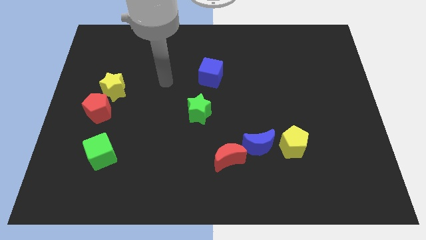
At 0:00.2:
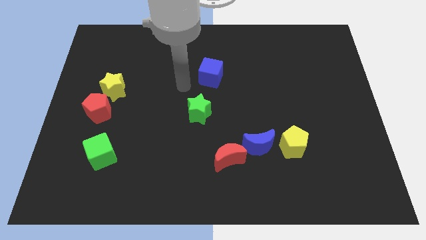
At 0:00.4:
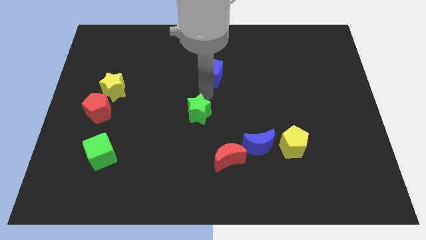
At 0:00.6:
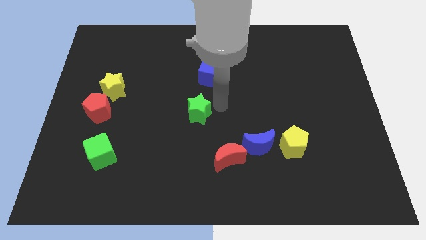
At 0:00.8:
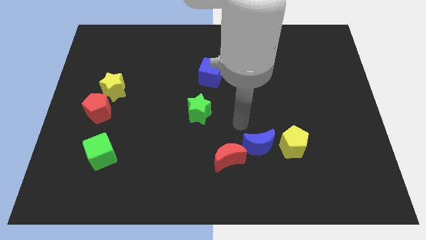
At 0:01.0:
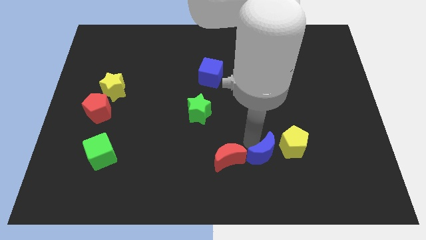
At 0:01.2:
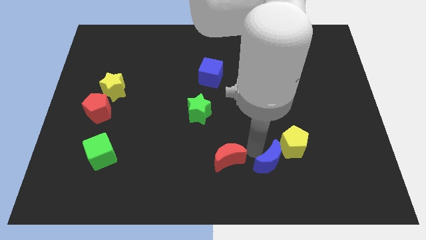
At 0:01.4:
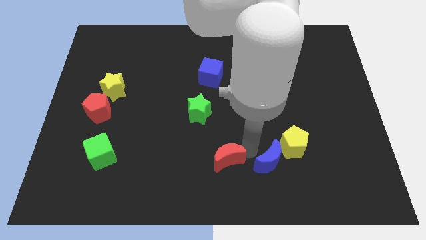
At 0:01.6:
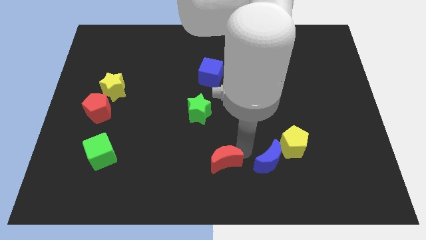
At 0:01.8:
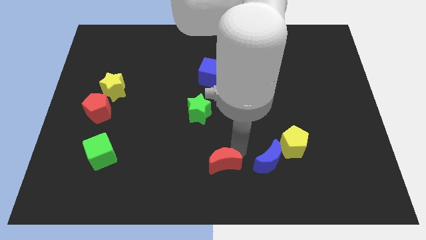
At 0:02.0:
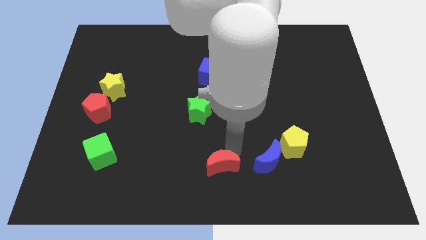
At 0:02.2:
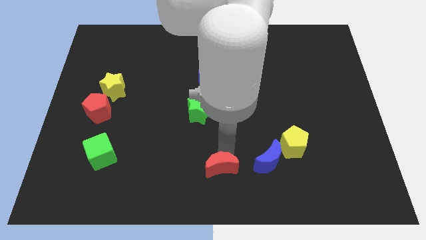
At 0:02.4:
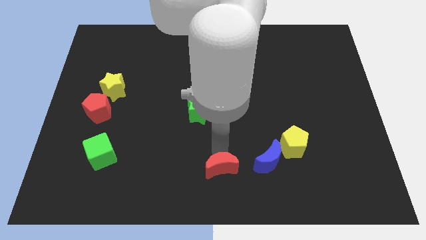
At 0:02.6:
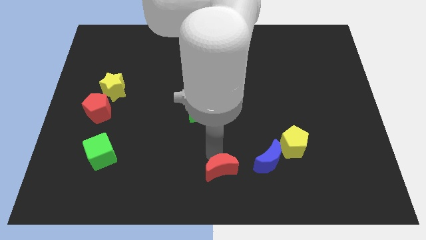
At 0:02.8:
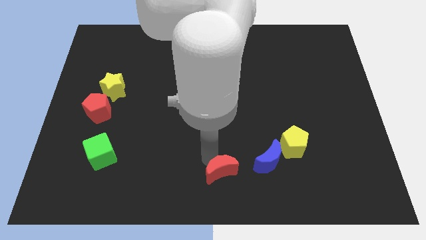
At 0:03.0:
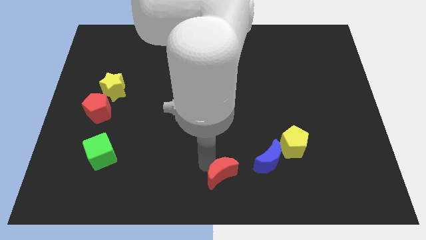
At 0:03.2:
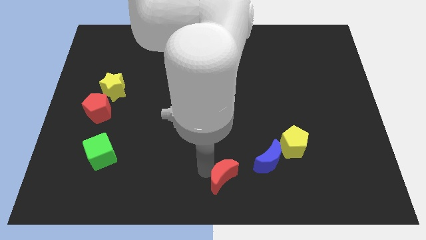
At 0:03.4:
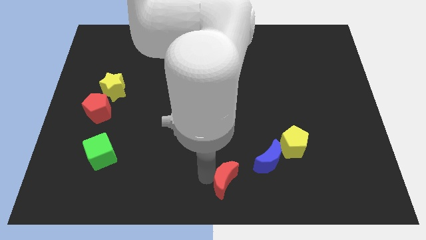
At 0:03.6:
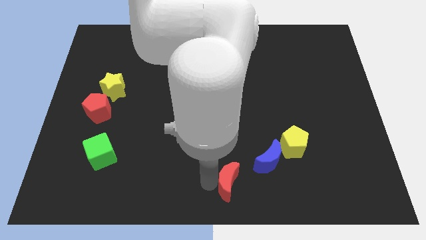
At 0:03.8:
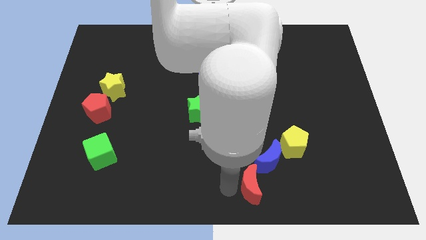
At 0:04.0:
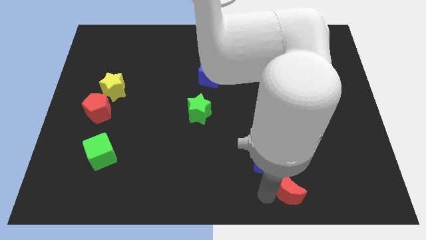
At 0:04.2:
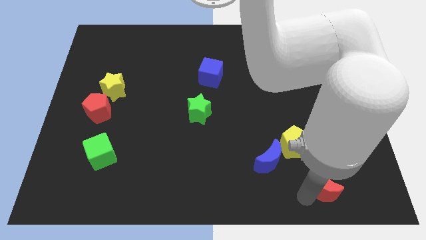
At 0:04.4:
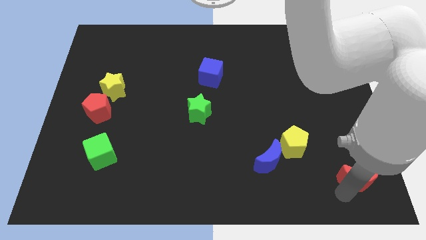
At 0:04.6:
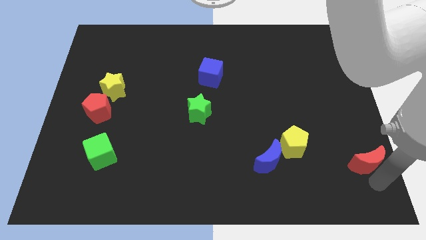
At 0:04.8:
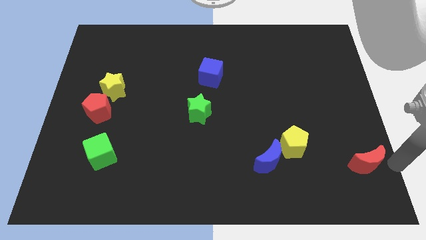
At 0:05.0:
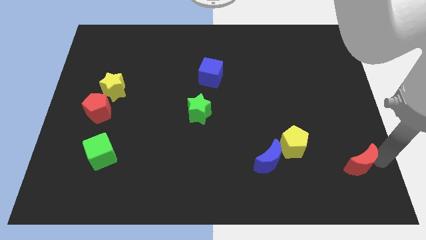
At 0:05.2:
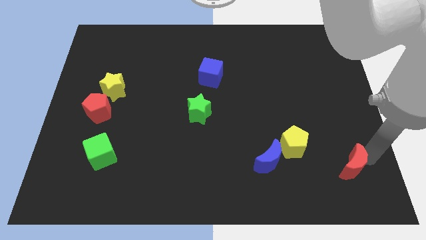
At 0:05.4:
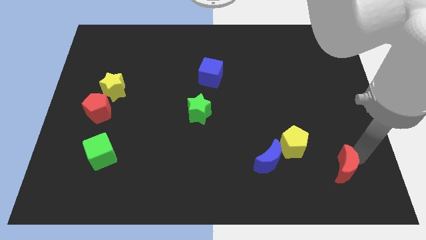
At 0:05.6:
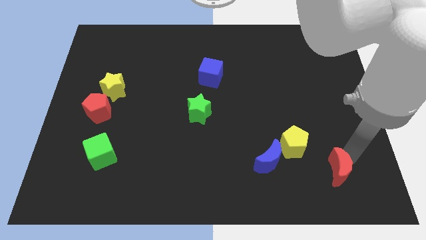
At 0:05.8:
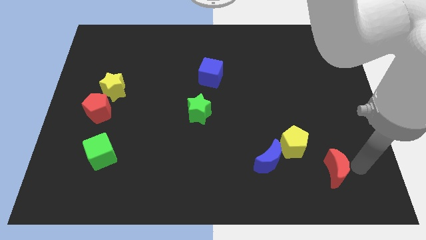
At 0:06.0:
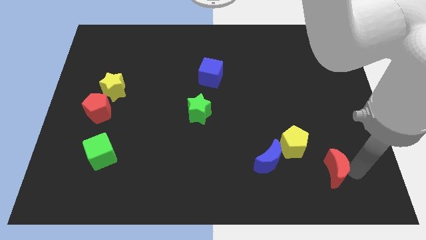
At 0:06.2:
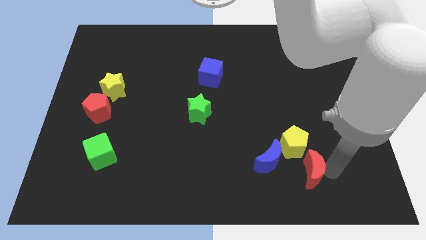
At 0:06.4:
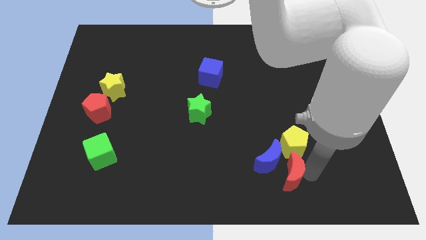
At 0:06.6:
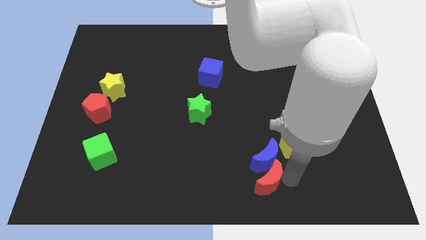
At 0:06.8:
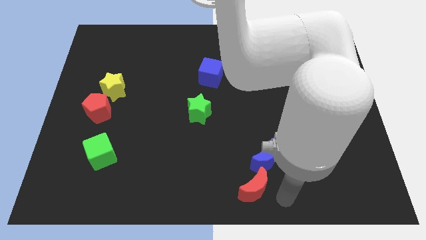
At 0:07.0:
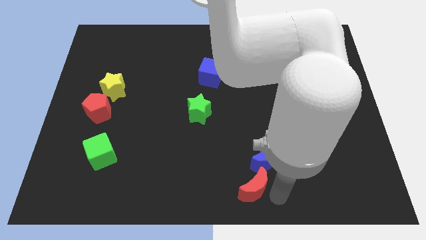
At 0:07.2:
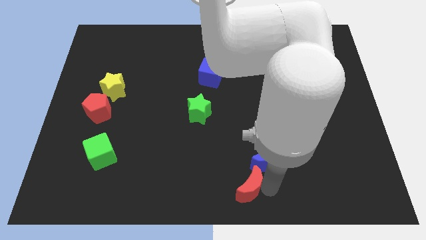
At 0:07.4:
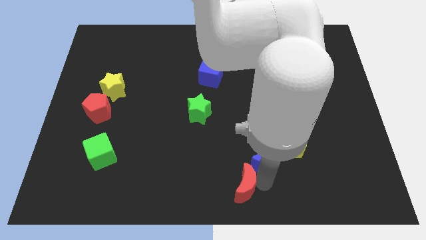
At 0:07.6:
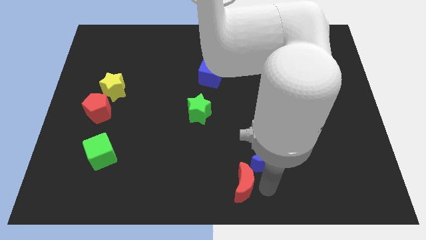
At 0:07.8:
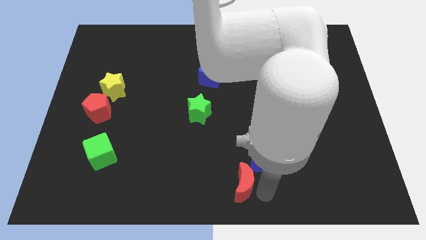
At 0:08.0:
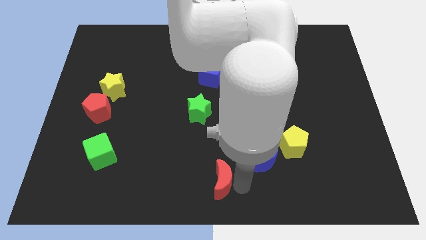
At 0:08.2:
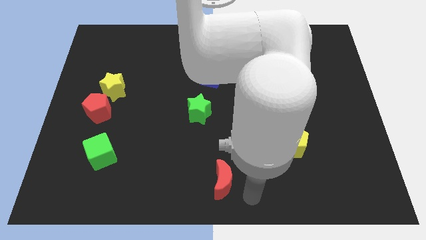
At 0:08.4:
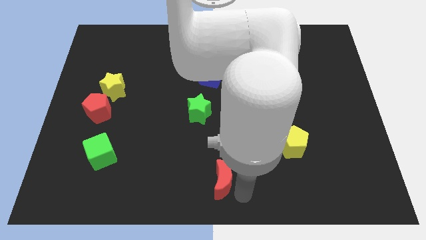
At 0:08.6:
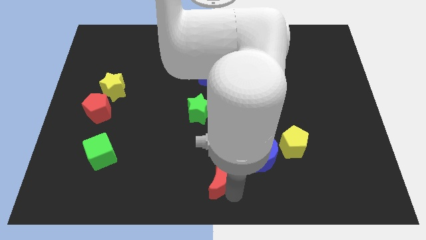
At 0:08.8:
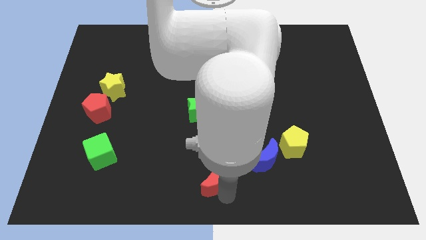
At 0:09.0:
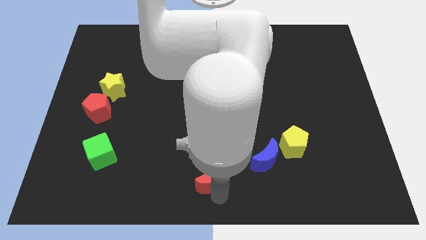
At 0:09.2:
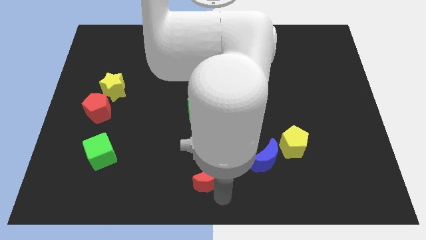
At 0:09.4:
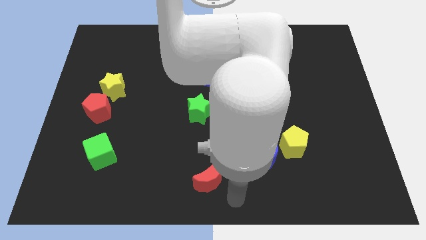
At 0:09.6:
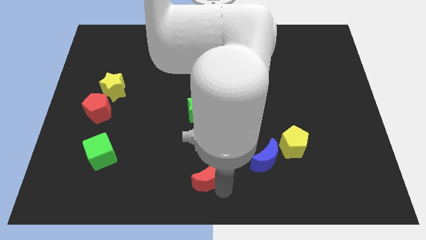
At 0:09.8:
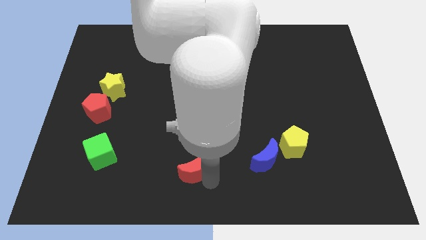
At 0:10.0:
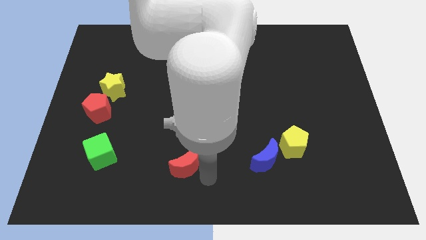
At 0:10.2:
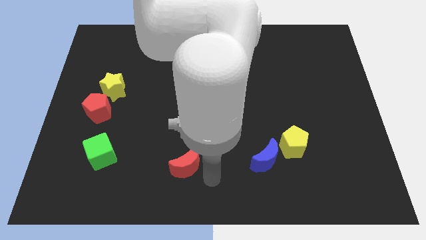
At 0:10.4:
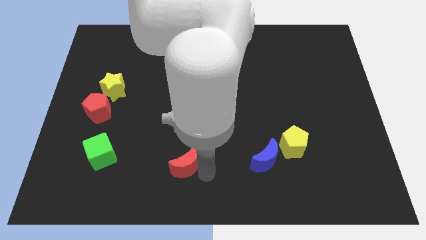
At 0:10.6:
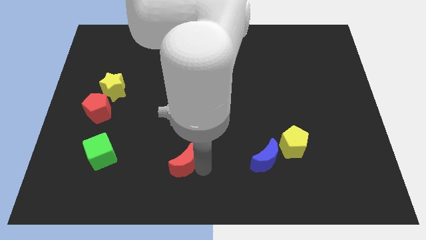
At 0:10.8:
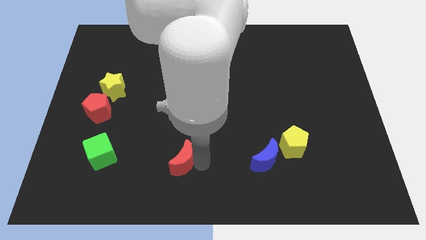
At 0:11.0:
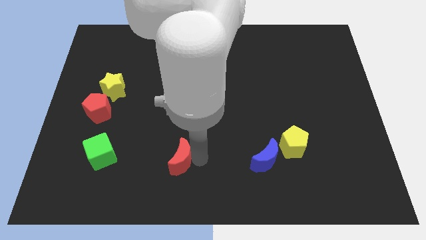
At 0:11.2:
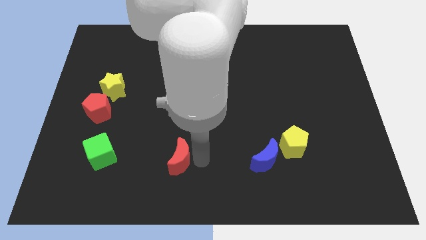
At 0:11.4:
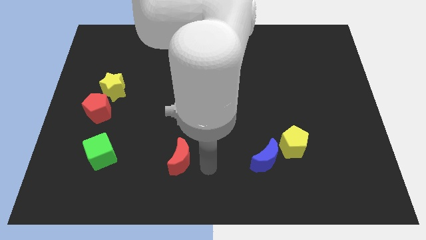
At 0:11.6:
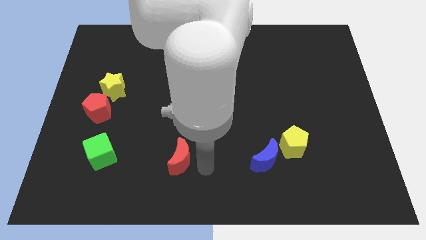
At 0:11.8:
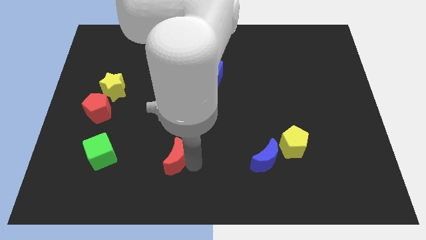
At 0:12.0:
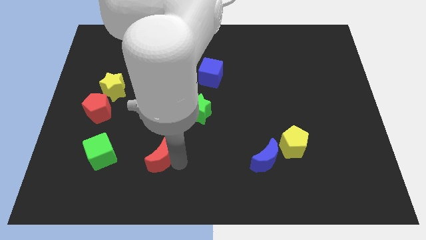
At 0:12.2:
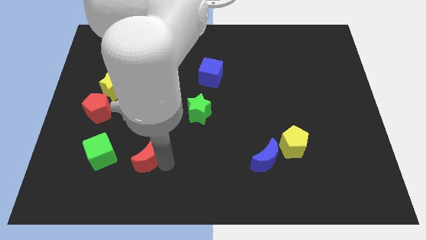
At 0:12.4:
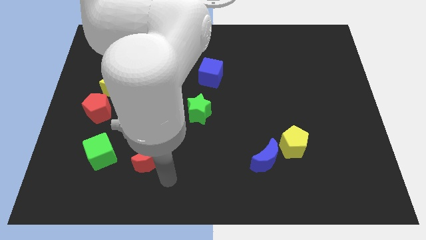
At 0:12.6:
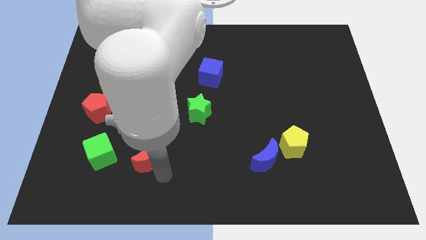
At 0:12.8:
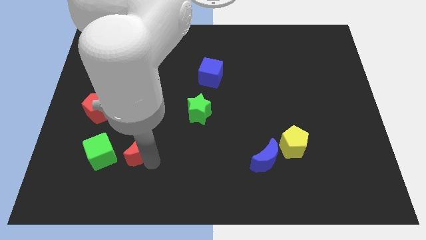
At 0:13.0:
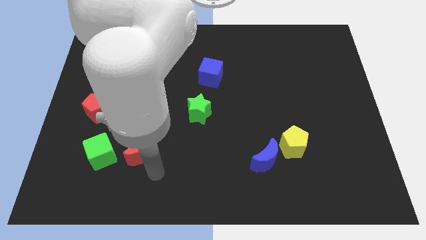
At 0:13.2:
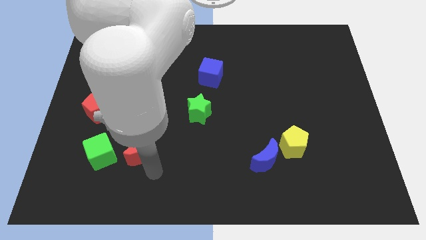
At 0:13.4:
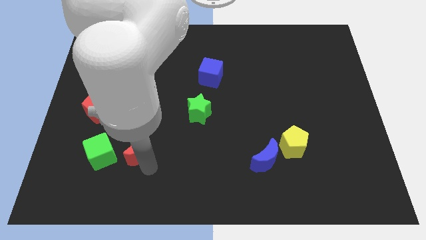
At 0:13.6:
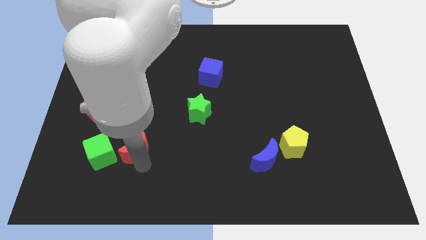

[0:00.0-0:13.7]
slide the red moon diagonally up and to the right of the green cube

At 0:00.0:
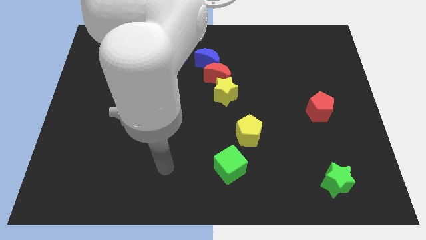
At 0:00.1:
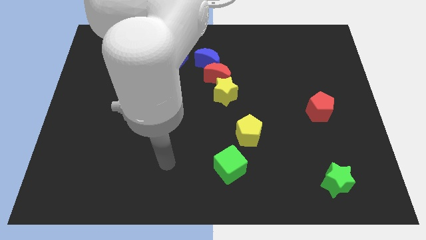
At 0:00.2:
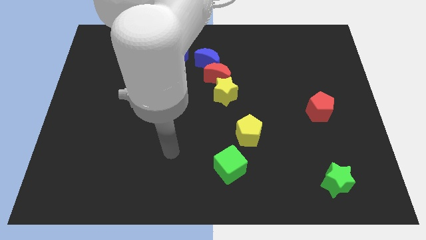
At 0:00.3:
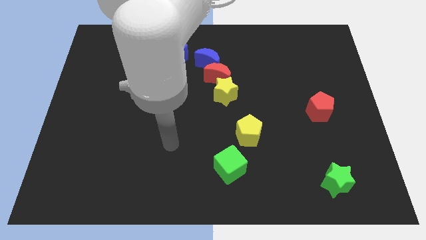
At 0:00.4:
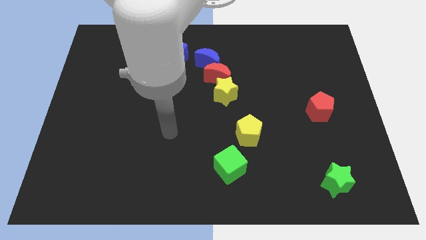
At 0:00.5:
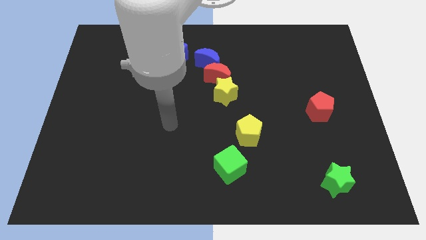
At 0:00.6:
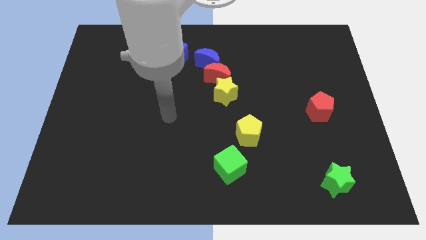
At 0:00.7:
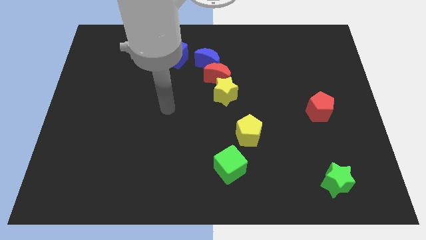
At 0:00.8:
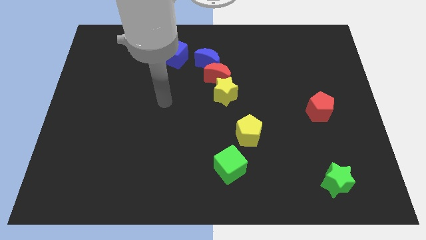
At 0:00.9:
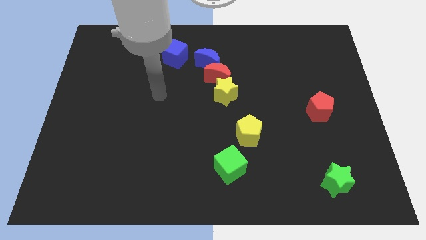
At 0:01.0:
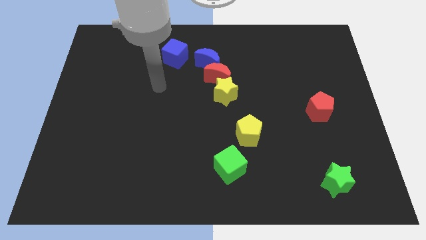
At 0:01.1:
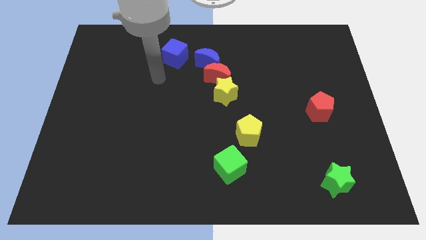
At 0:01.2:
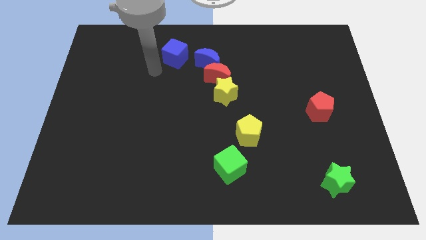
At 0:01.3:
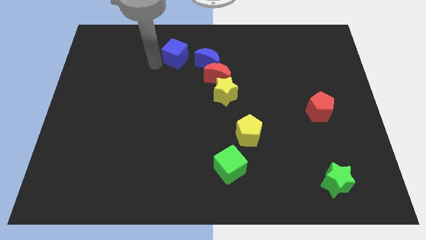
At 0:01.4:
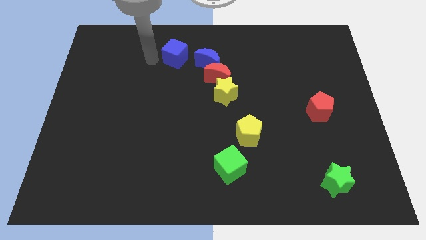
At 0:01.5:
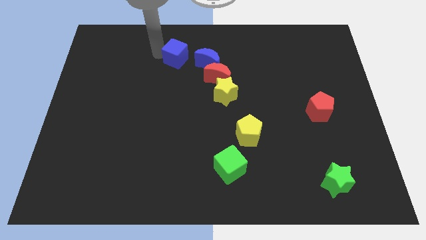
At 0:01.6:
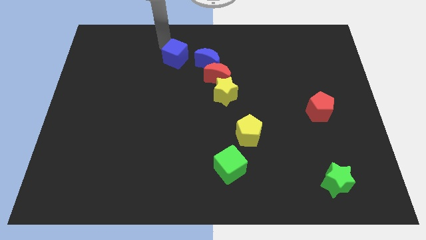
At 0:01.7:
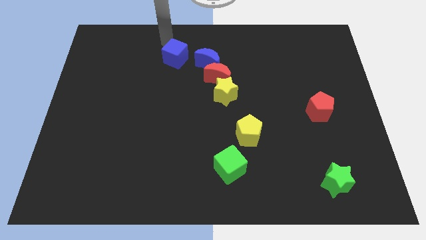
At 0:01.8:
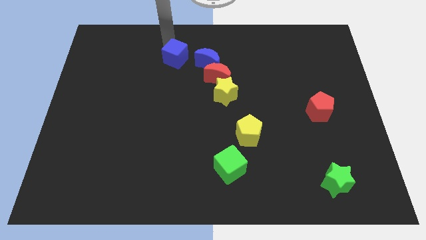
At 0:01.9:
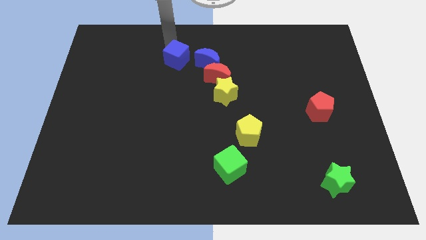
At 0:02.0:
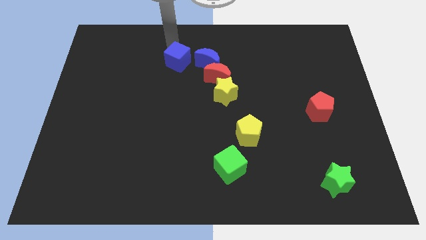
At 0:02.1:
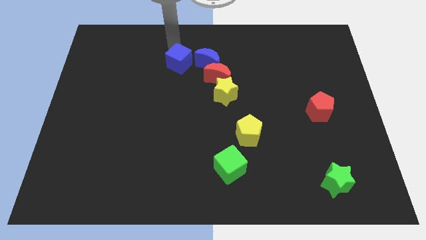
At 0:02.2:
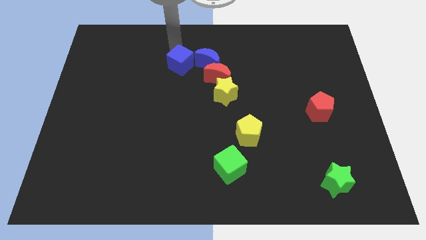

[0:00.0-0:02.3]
put the blue cube to the bottom left side of the blue moon
